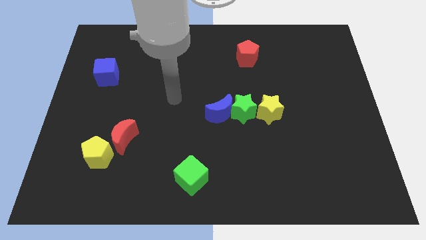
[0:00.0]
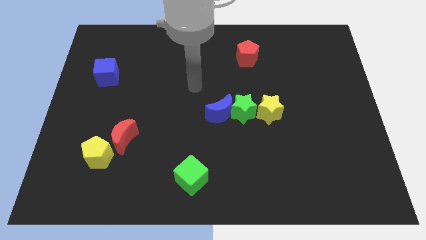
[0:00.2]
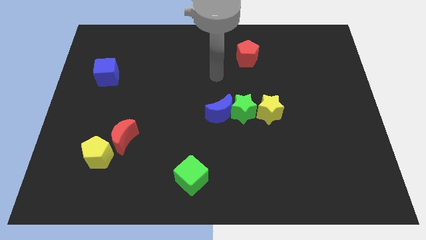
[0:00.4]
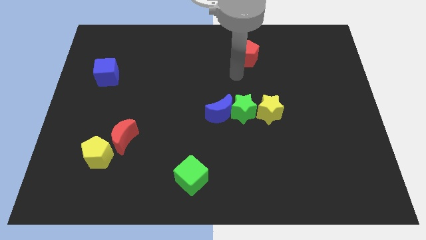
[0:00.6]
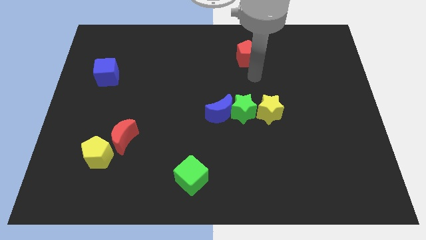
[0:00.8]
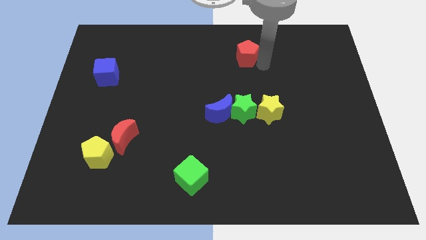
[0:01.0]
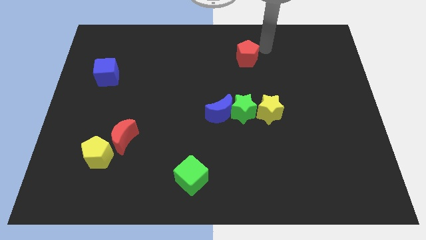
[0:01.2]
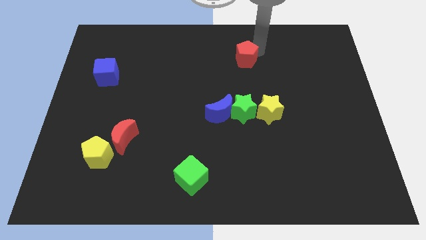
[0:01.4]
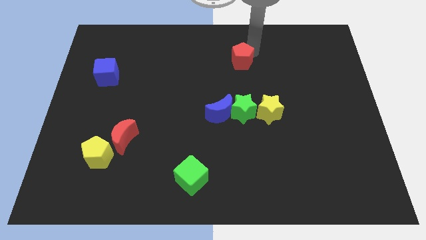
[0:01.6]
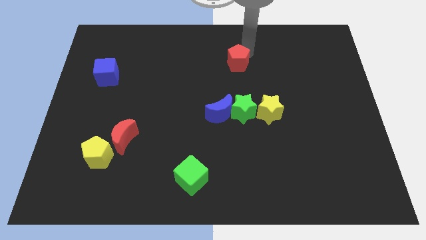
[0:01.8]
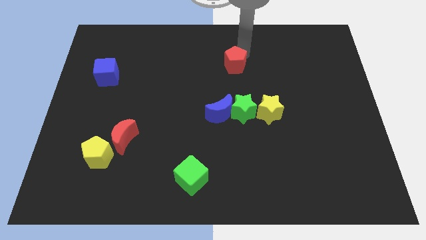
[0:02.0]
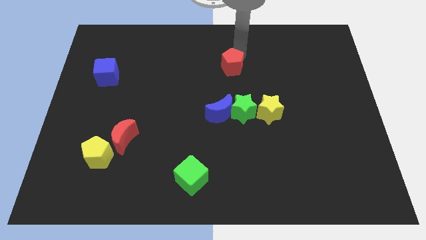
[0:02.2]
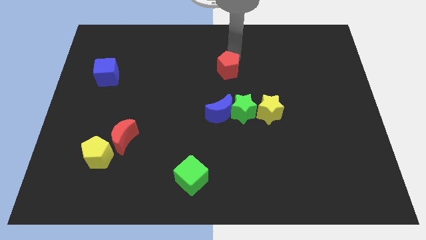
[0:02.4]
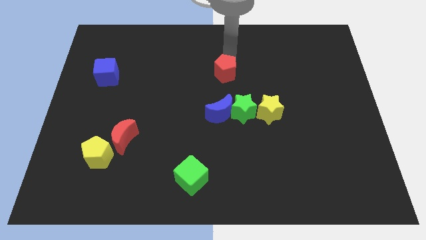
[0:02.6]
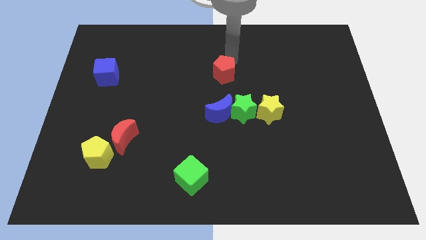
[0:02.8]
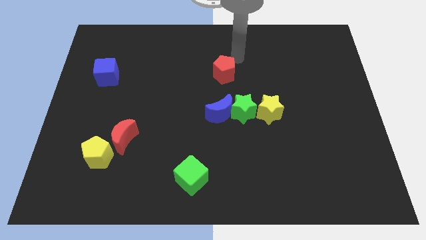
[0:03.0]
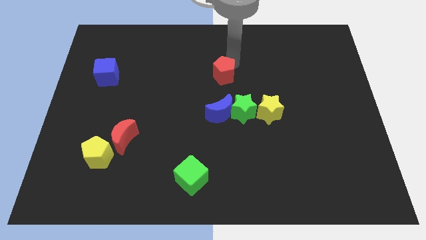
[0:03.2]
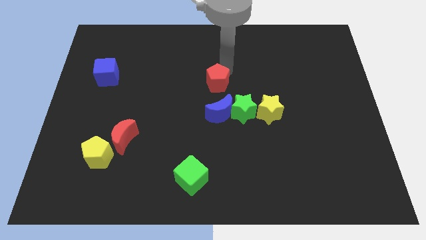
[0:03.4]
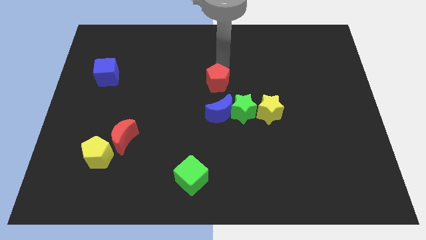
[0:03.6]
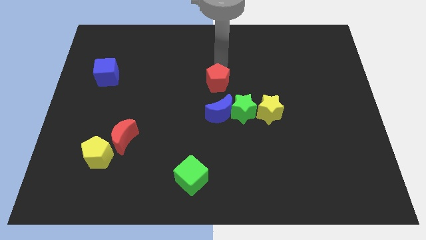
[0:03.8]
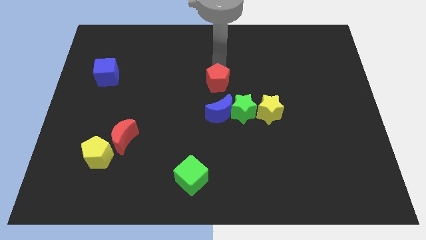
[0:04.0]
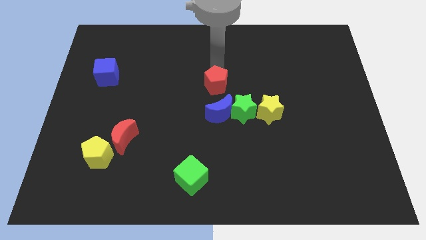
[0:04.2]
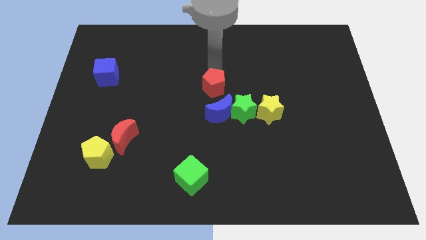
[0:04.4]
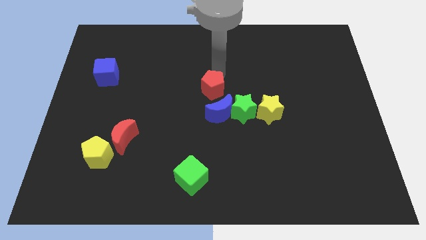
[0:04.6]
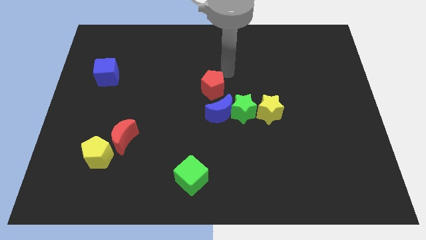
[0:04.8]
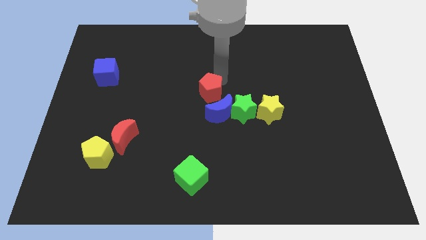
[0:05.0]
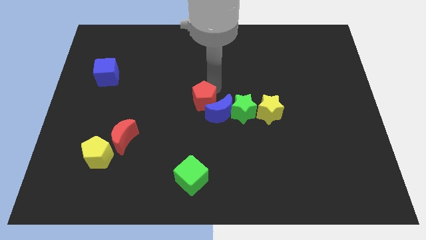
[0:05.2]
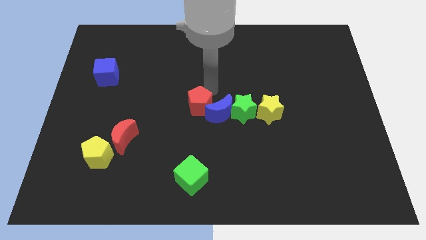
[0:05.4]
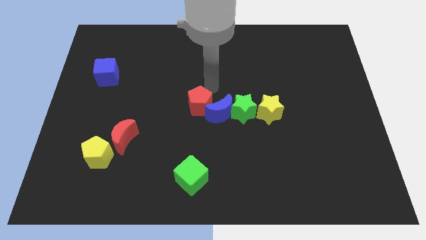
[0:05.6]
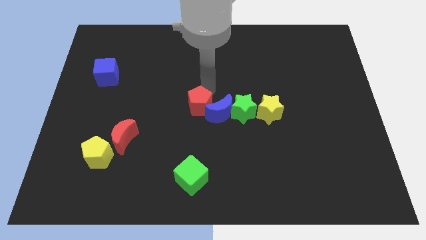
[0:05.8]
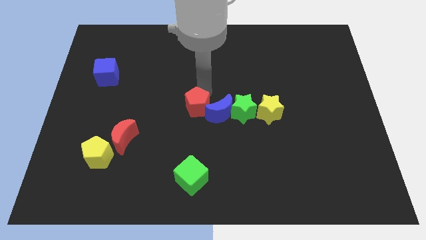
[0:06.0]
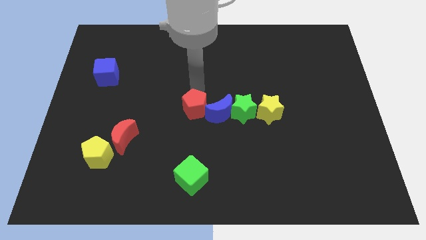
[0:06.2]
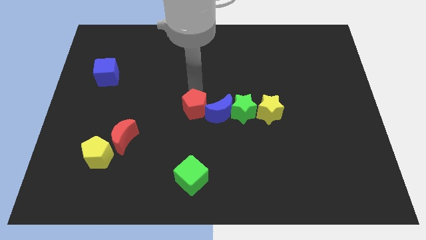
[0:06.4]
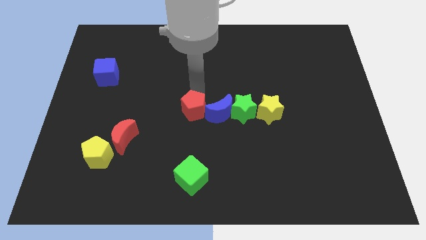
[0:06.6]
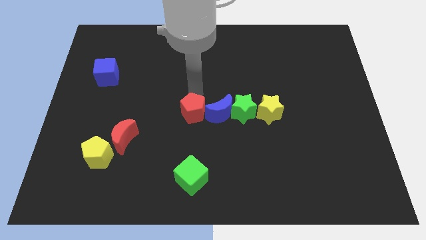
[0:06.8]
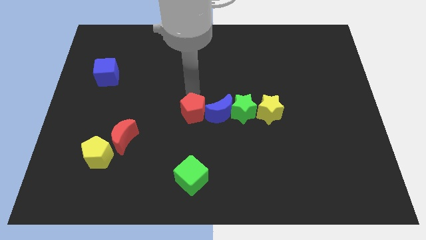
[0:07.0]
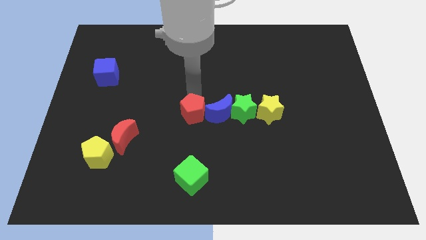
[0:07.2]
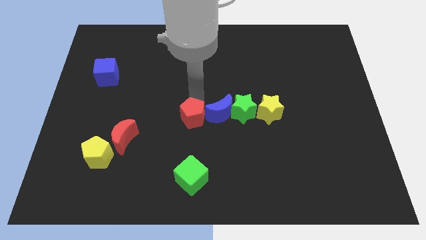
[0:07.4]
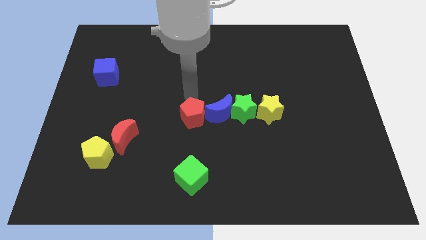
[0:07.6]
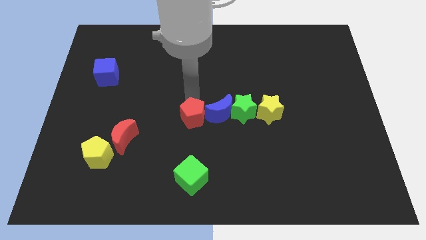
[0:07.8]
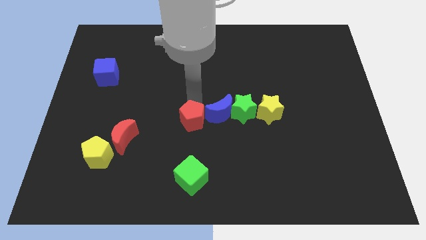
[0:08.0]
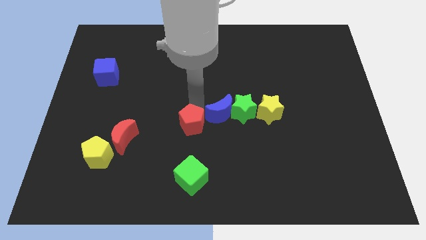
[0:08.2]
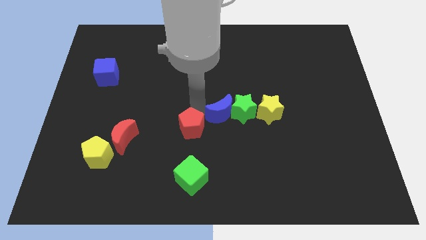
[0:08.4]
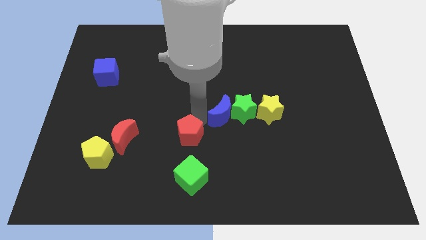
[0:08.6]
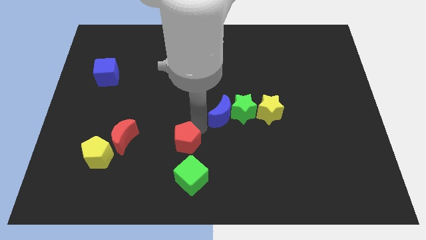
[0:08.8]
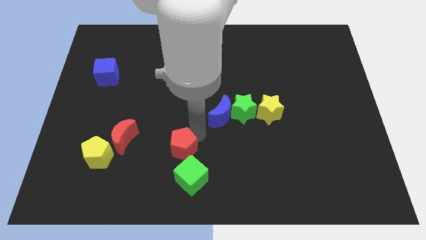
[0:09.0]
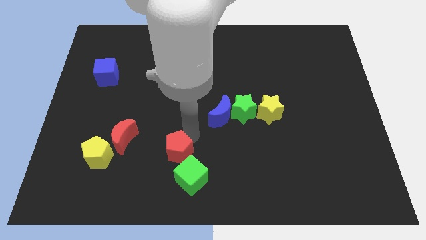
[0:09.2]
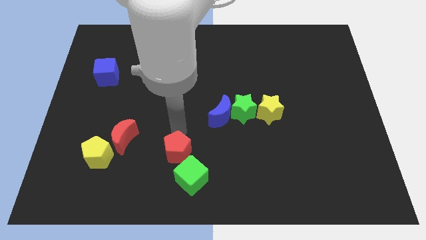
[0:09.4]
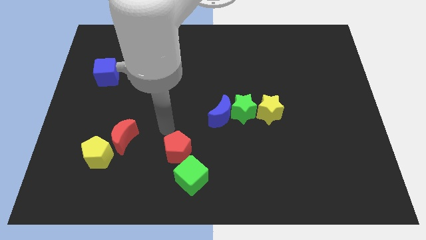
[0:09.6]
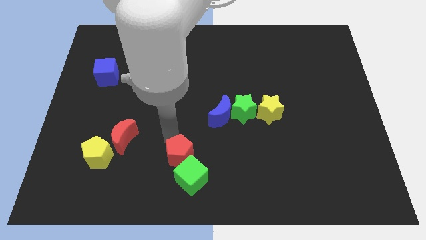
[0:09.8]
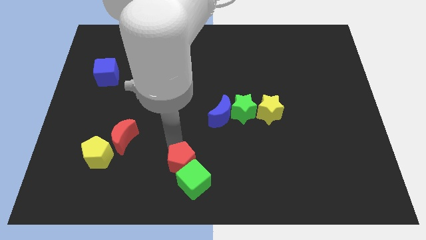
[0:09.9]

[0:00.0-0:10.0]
slide the red pentagon next to the green cube

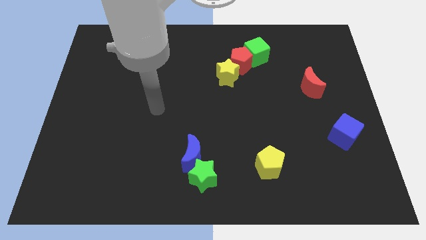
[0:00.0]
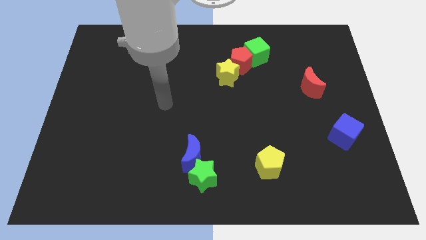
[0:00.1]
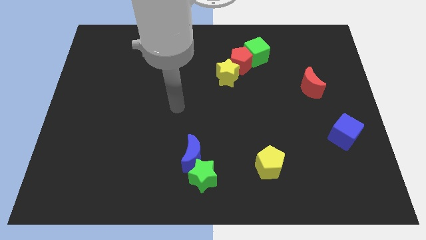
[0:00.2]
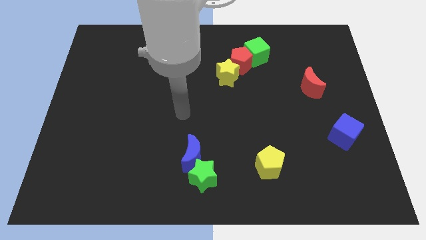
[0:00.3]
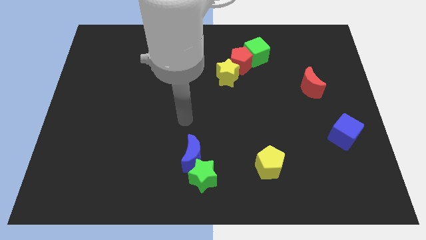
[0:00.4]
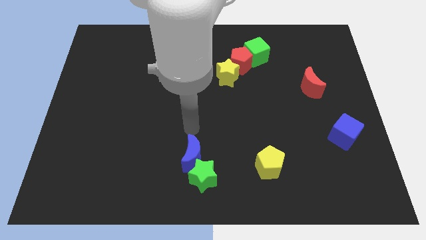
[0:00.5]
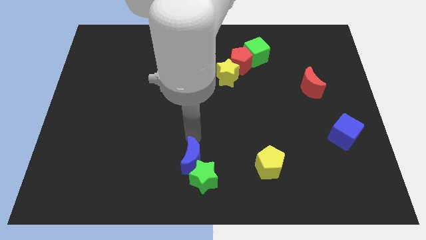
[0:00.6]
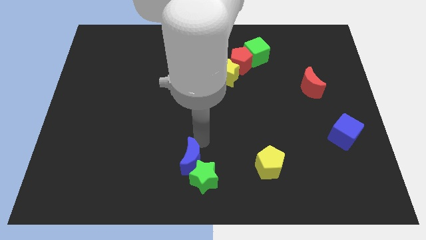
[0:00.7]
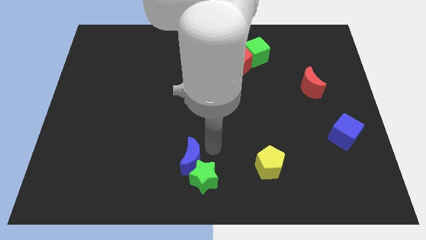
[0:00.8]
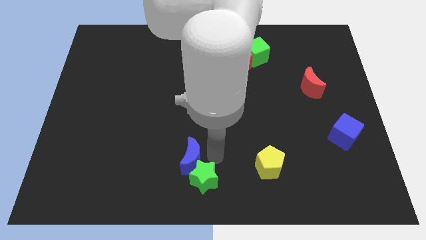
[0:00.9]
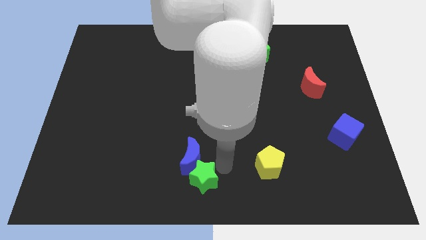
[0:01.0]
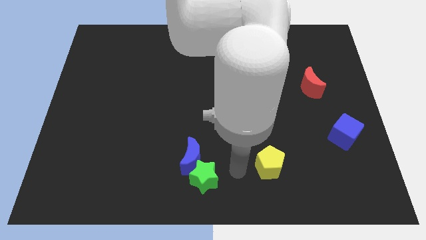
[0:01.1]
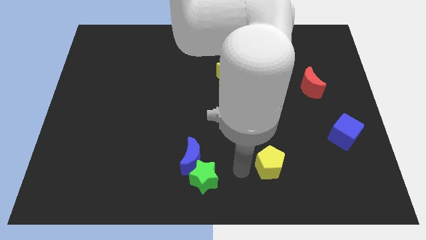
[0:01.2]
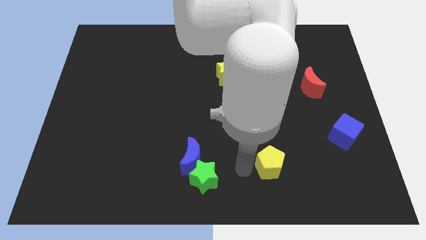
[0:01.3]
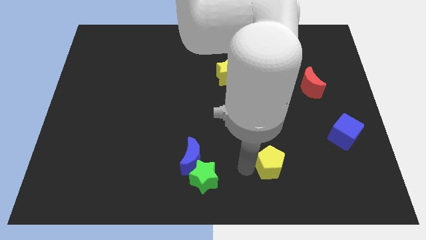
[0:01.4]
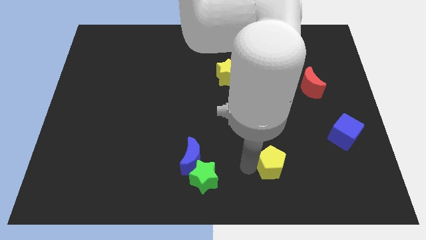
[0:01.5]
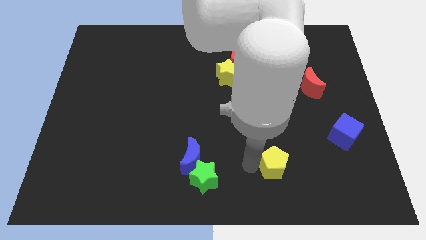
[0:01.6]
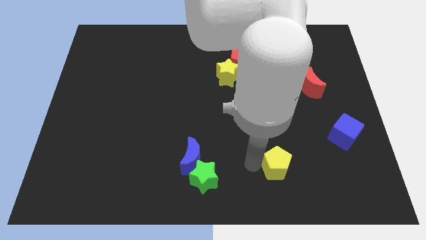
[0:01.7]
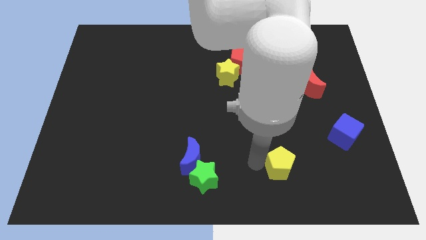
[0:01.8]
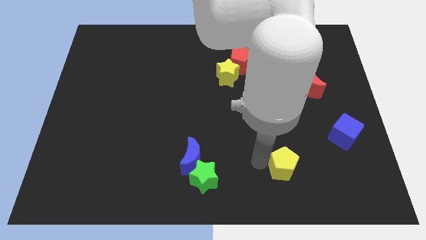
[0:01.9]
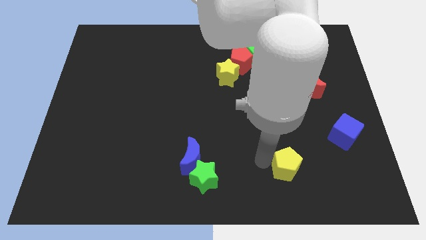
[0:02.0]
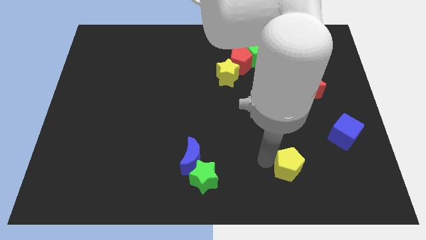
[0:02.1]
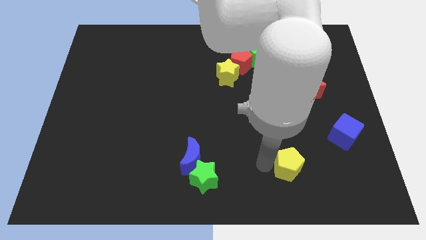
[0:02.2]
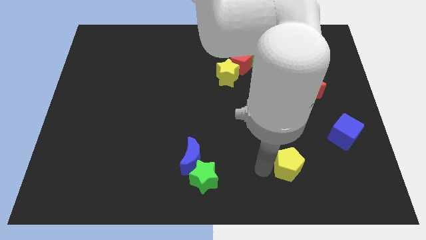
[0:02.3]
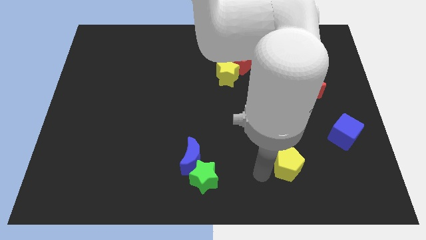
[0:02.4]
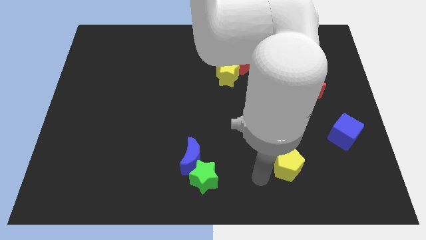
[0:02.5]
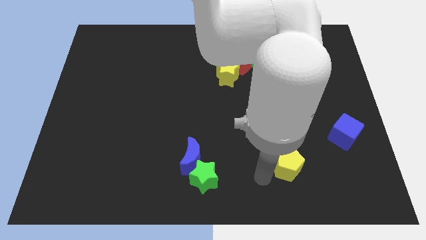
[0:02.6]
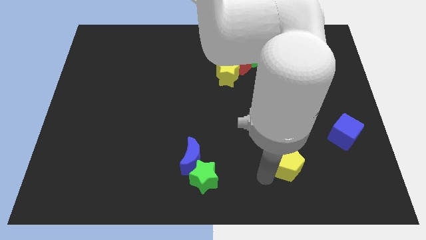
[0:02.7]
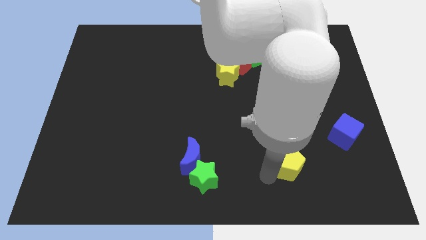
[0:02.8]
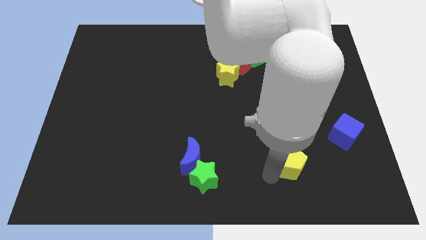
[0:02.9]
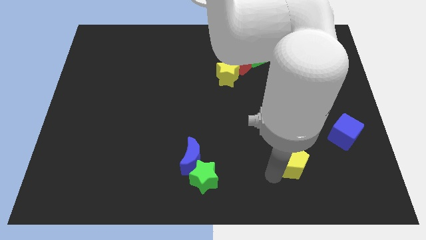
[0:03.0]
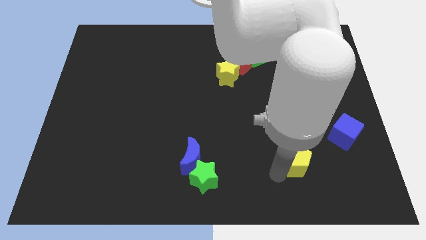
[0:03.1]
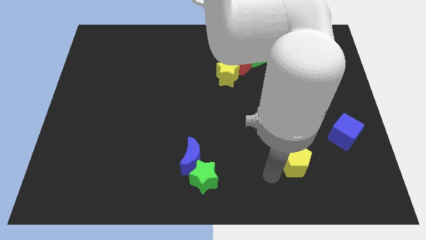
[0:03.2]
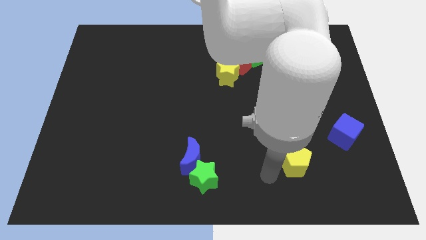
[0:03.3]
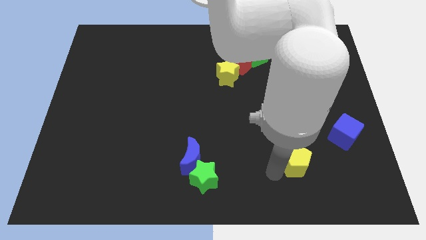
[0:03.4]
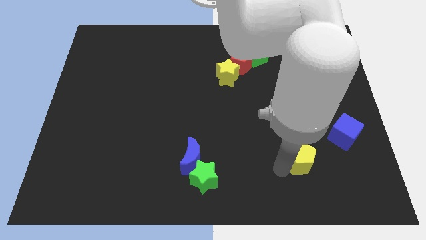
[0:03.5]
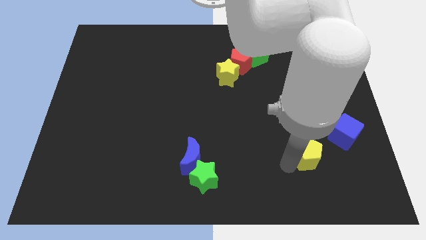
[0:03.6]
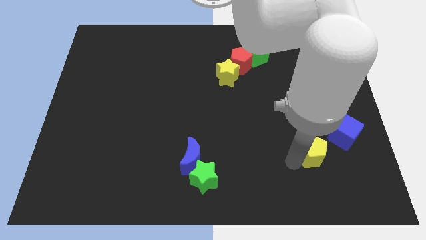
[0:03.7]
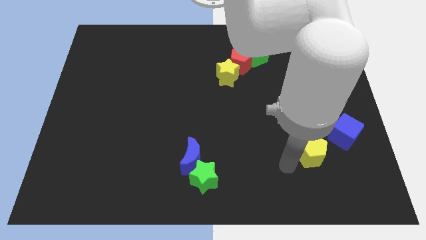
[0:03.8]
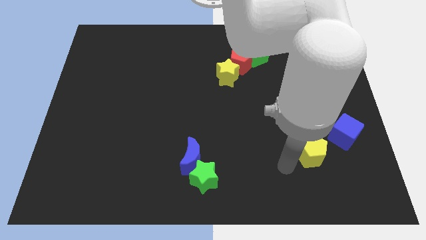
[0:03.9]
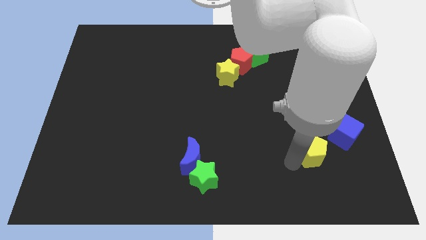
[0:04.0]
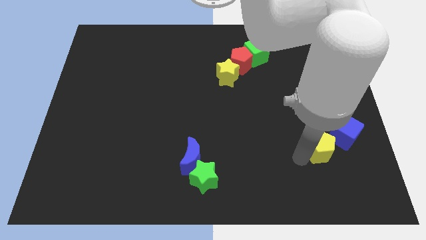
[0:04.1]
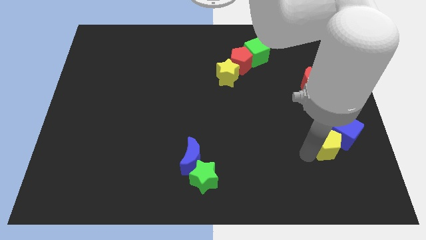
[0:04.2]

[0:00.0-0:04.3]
move the yellow pentagon towards the blue cube
